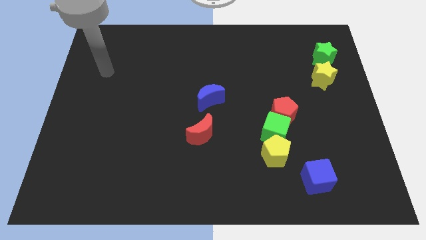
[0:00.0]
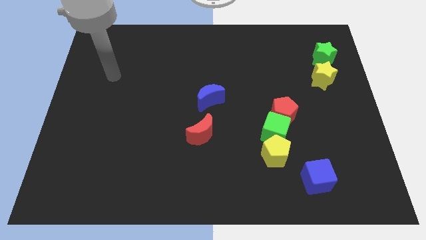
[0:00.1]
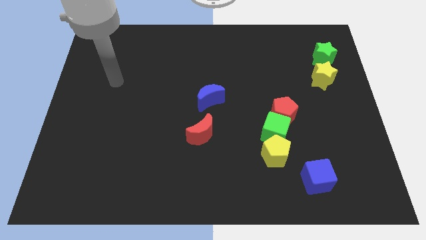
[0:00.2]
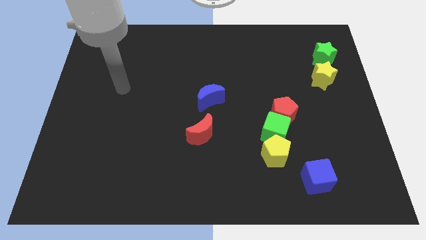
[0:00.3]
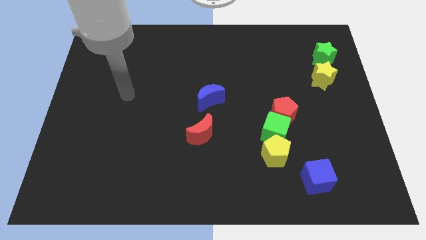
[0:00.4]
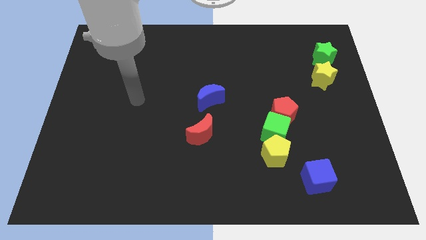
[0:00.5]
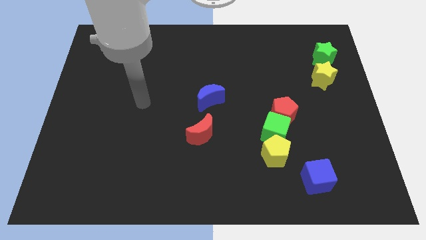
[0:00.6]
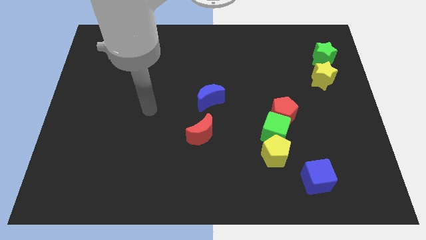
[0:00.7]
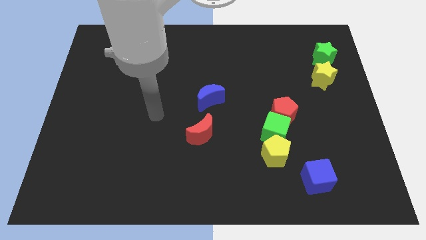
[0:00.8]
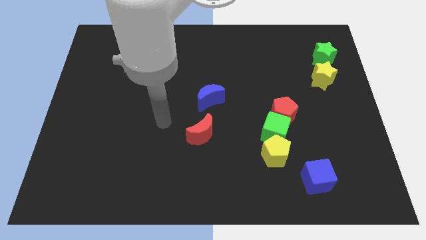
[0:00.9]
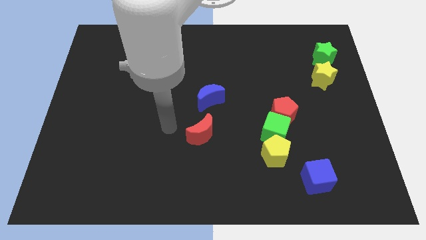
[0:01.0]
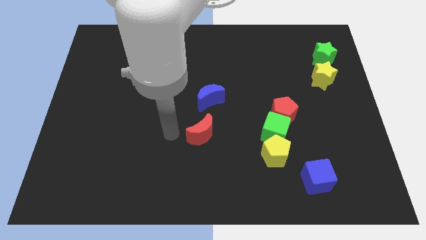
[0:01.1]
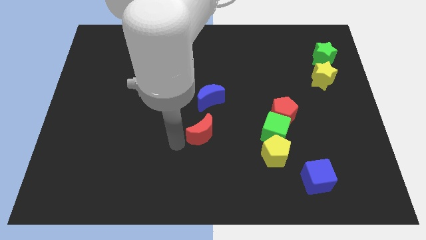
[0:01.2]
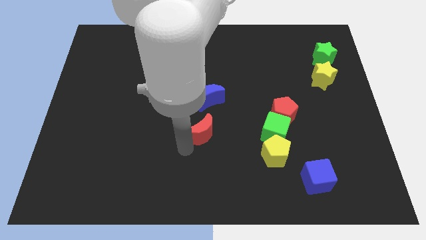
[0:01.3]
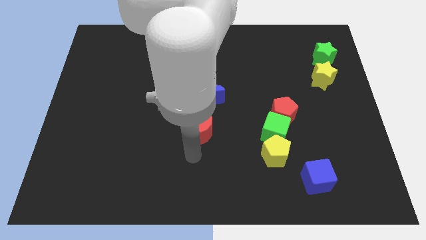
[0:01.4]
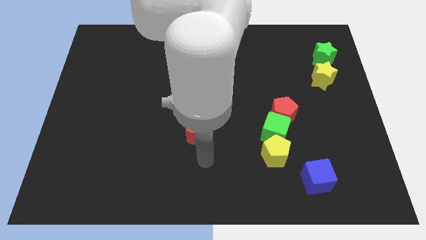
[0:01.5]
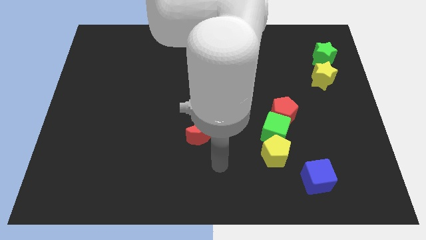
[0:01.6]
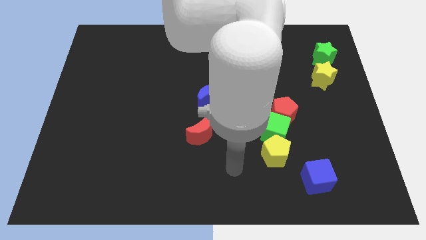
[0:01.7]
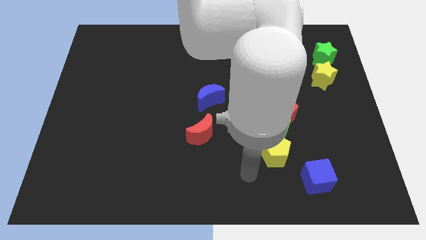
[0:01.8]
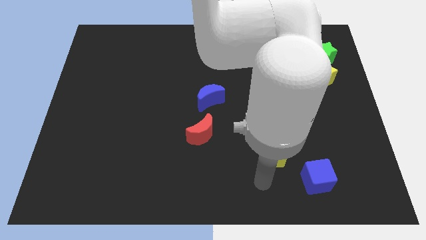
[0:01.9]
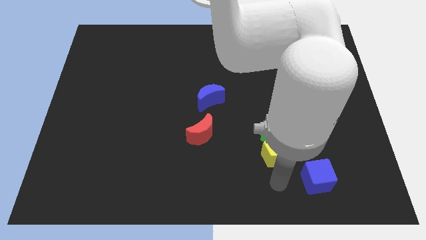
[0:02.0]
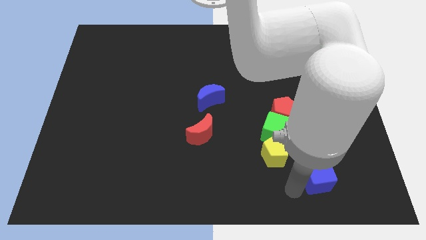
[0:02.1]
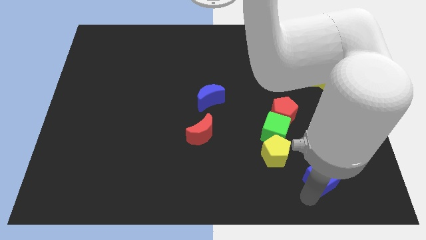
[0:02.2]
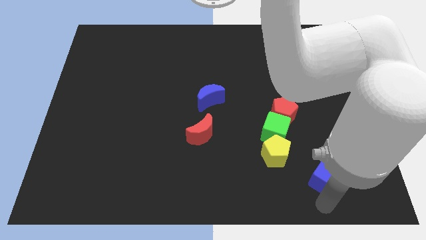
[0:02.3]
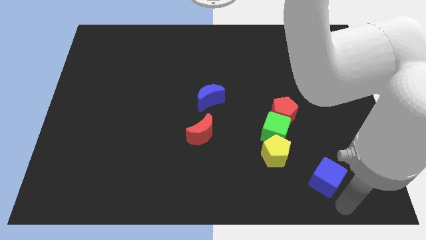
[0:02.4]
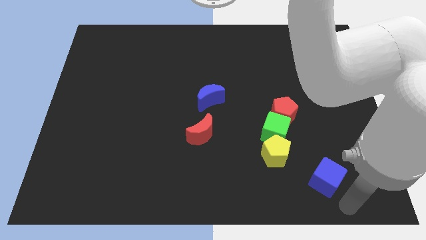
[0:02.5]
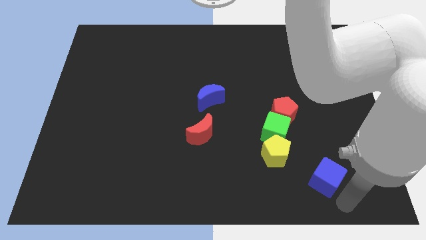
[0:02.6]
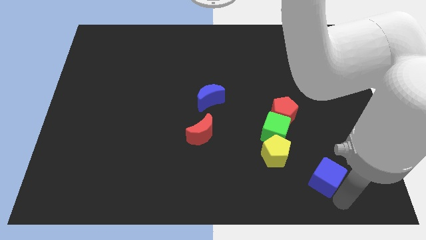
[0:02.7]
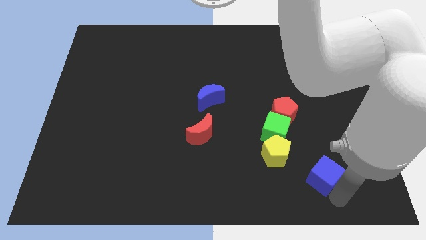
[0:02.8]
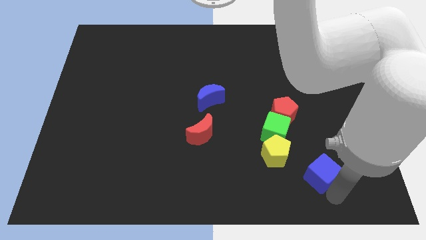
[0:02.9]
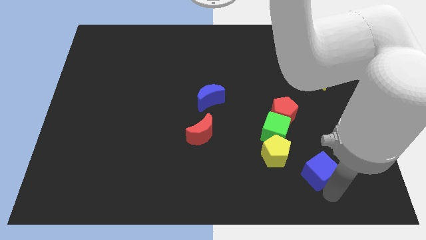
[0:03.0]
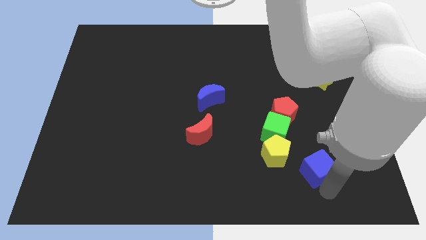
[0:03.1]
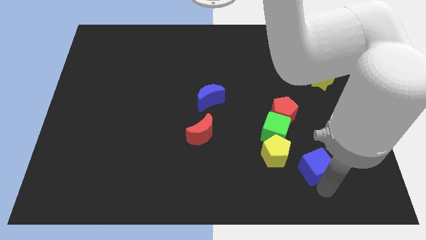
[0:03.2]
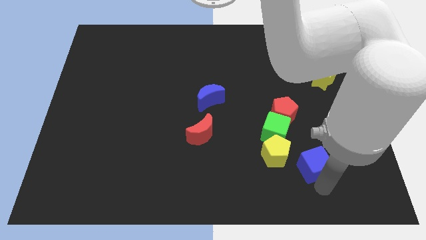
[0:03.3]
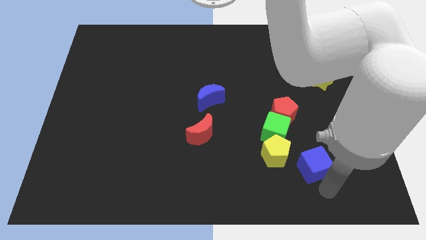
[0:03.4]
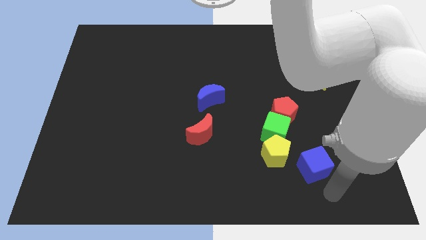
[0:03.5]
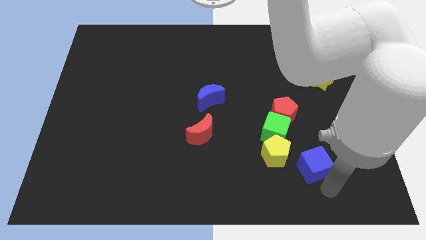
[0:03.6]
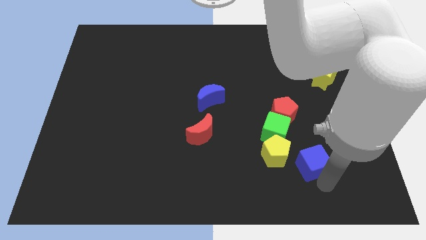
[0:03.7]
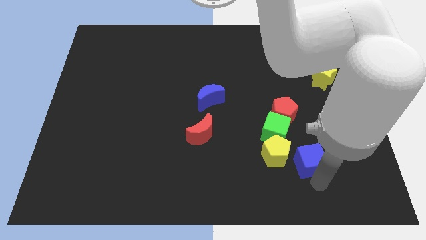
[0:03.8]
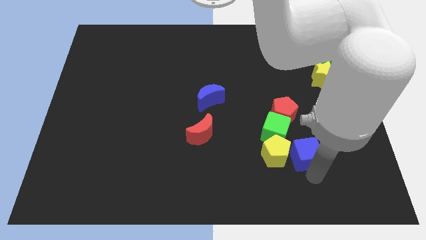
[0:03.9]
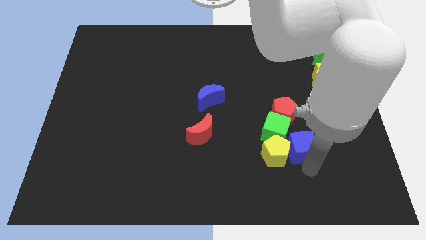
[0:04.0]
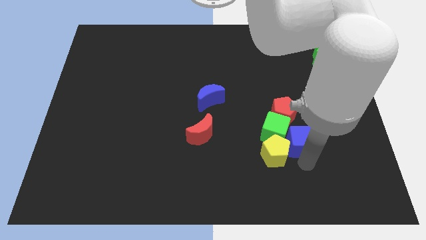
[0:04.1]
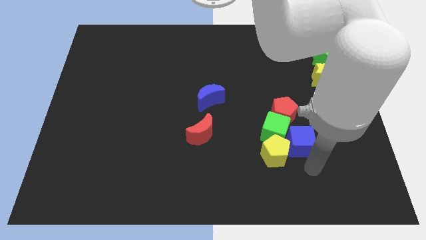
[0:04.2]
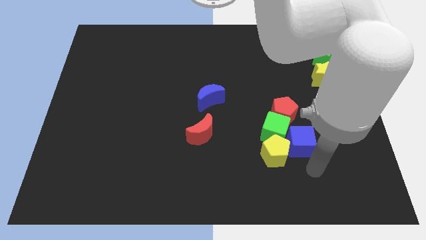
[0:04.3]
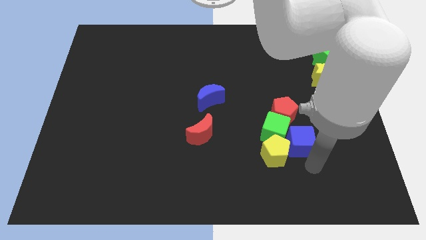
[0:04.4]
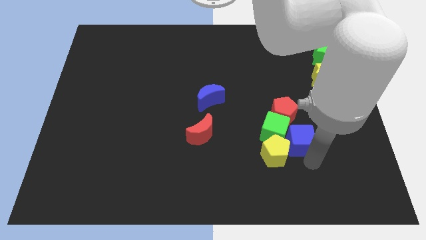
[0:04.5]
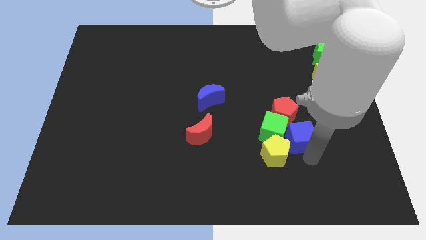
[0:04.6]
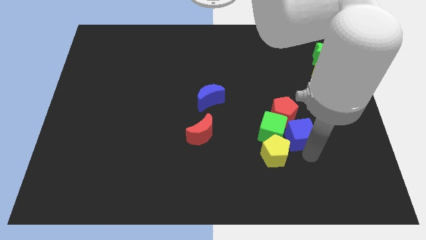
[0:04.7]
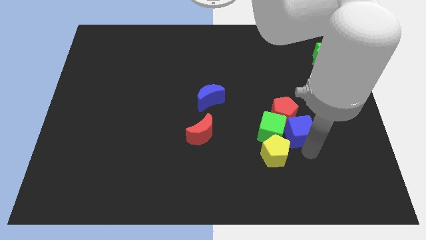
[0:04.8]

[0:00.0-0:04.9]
slide the blue cube close to the red pentagon

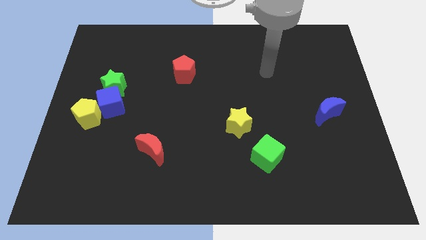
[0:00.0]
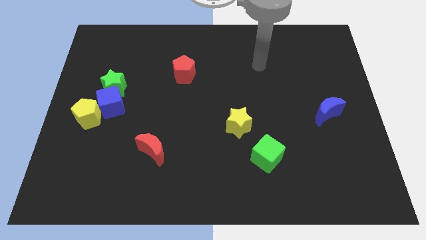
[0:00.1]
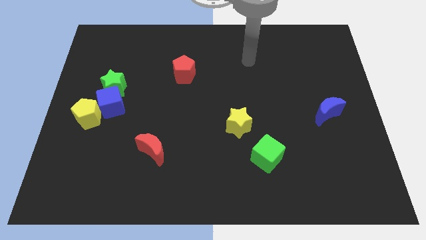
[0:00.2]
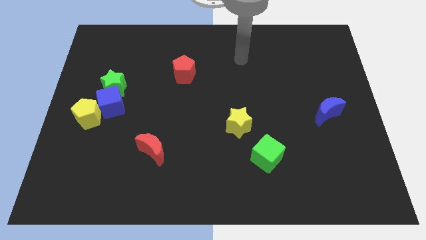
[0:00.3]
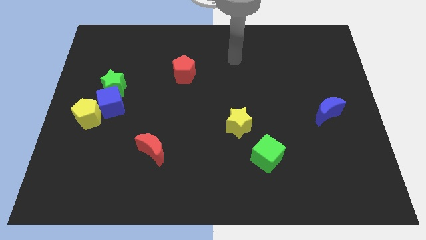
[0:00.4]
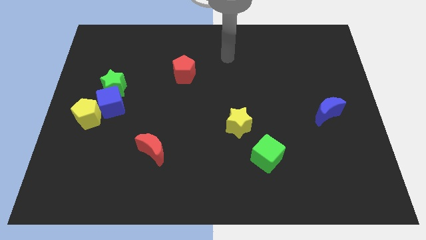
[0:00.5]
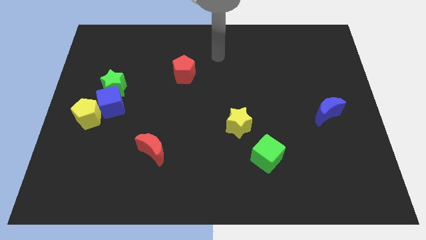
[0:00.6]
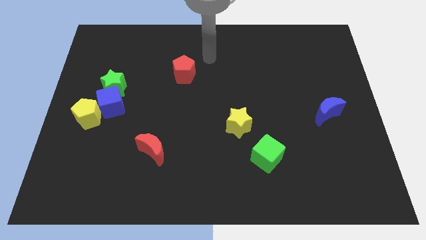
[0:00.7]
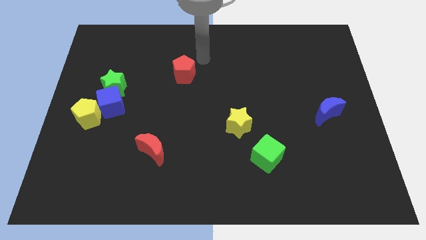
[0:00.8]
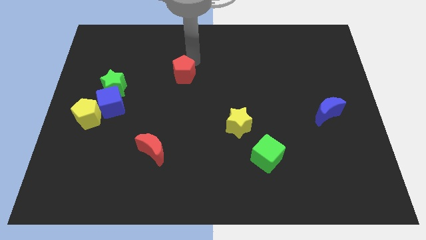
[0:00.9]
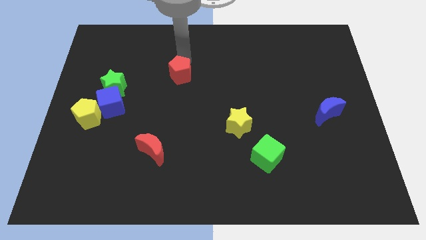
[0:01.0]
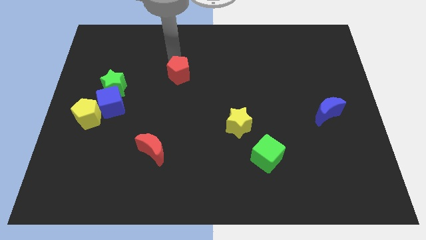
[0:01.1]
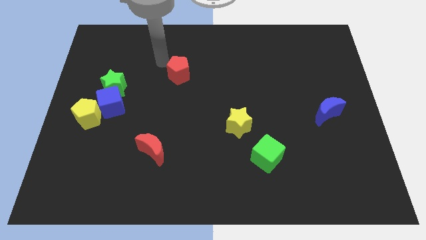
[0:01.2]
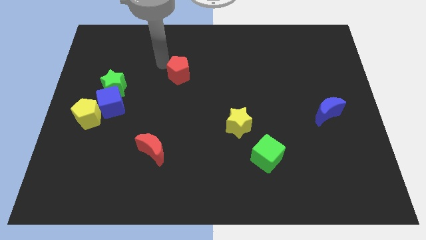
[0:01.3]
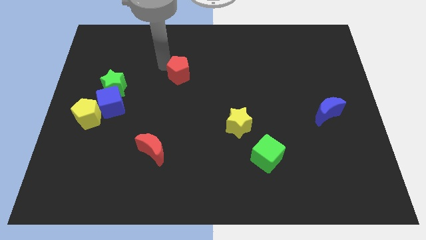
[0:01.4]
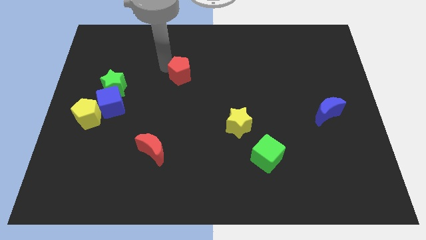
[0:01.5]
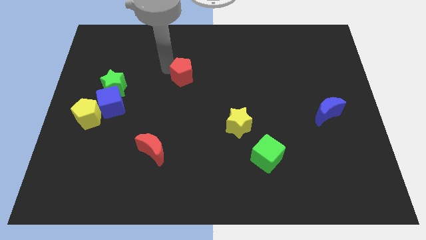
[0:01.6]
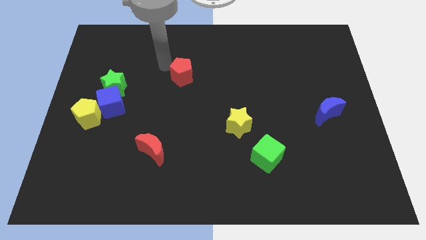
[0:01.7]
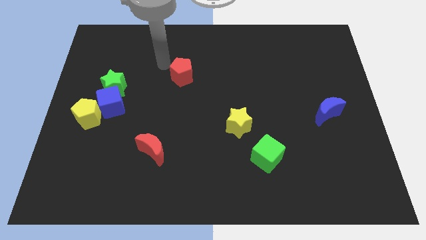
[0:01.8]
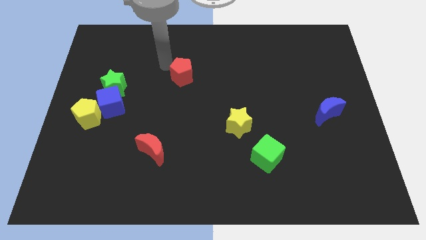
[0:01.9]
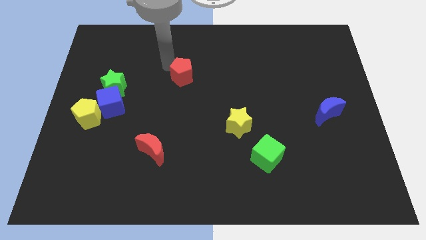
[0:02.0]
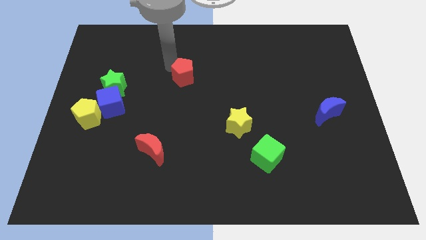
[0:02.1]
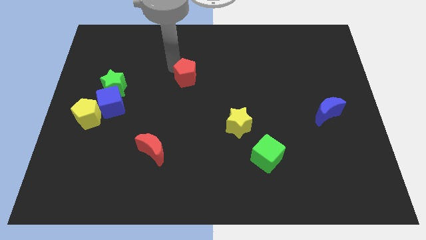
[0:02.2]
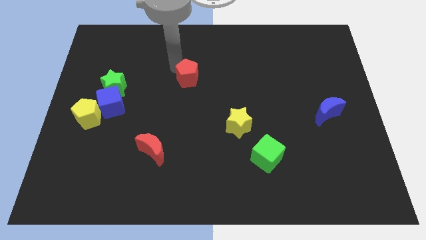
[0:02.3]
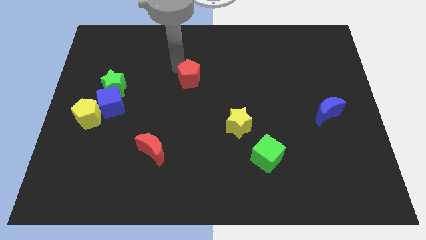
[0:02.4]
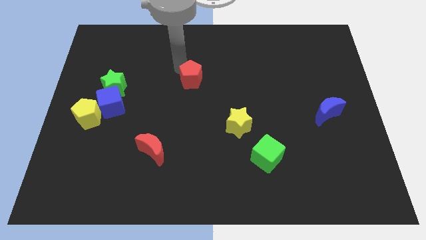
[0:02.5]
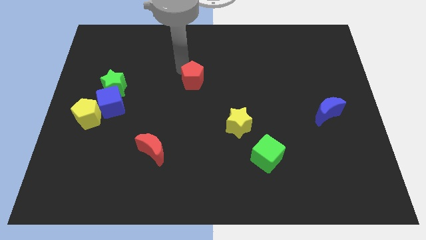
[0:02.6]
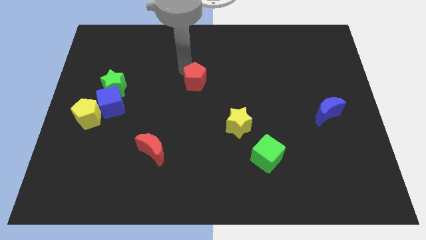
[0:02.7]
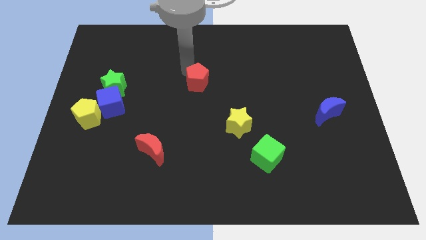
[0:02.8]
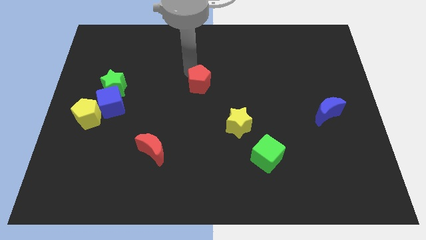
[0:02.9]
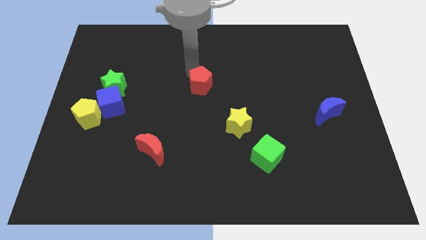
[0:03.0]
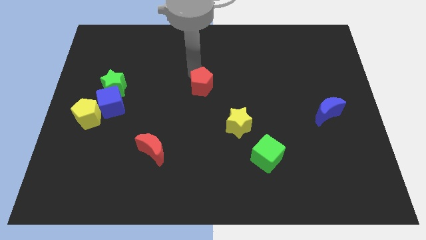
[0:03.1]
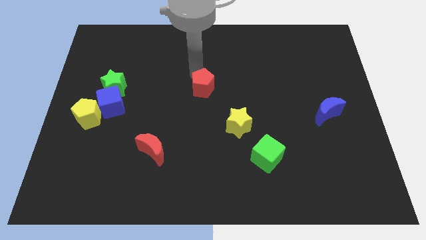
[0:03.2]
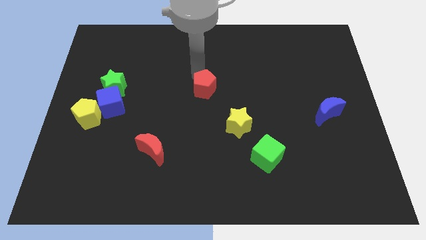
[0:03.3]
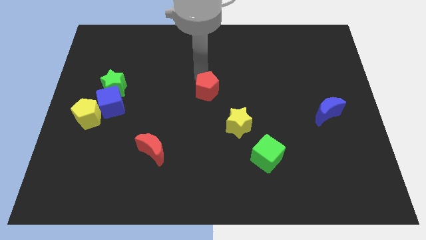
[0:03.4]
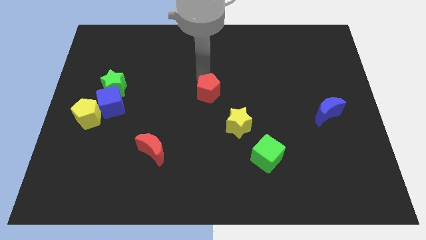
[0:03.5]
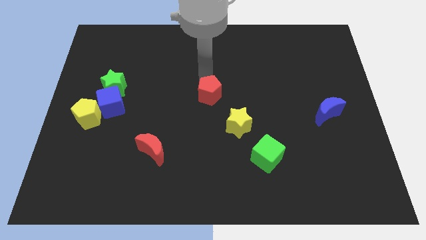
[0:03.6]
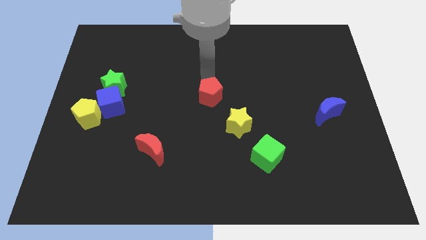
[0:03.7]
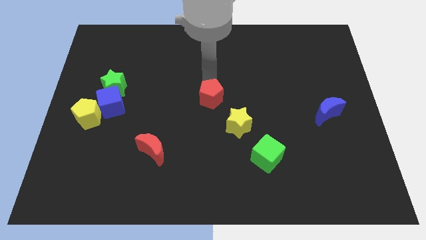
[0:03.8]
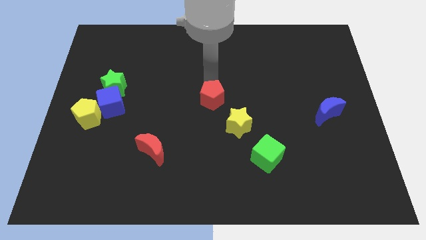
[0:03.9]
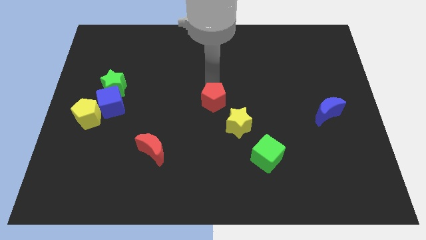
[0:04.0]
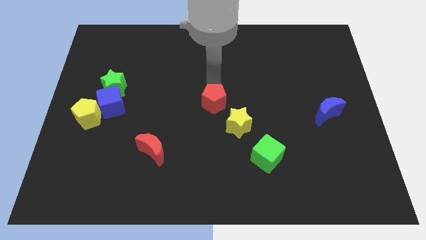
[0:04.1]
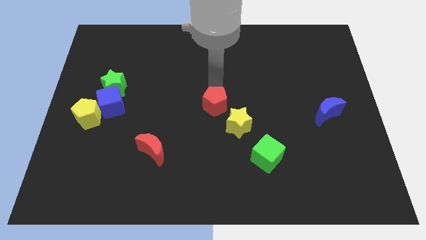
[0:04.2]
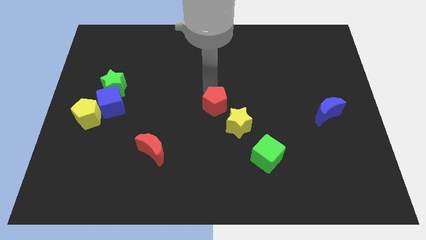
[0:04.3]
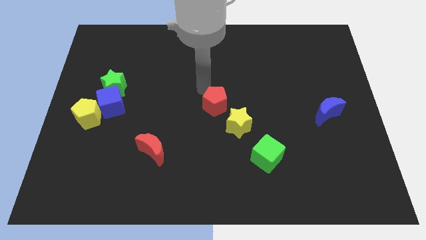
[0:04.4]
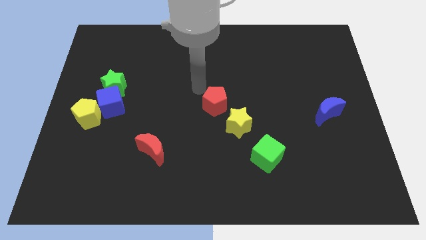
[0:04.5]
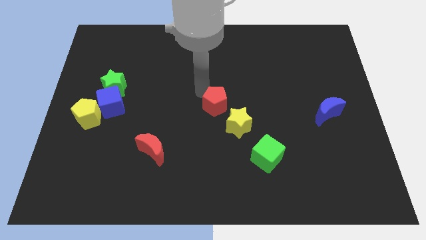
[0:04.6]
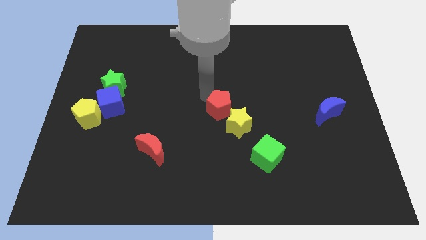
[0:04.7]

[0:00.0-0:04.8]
put the red pentagon to the yellow star
